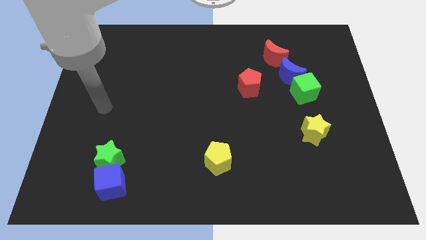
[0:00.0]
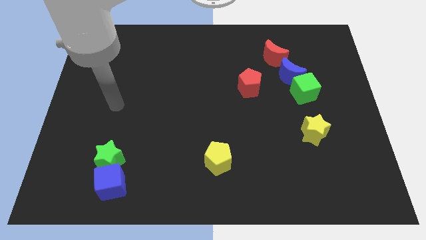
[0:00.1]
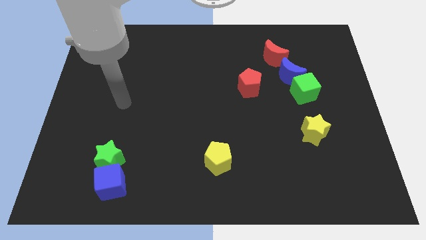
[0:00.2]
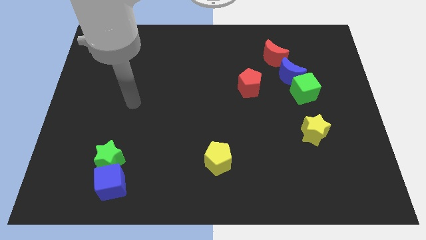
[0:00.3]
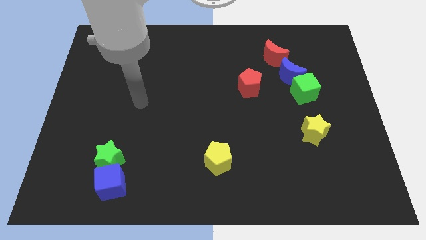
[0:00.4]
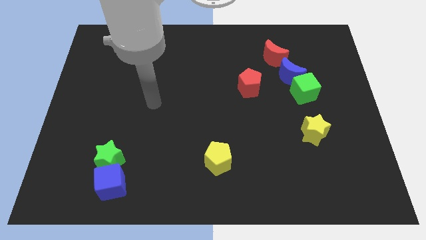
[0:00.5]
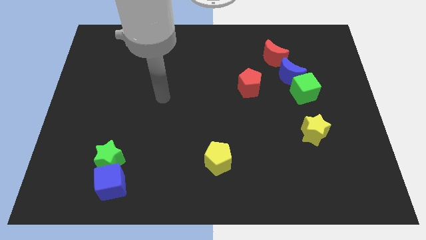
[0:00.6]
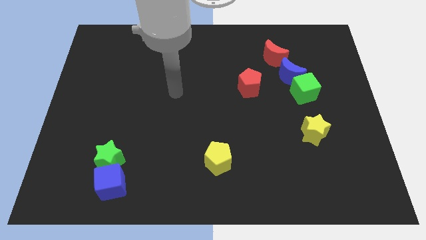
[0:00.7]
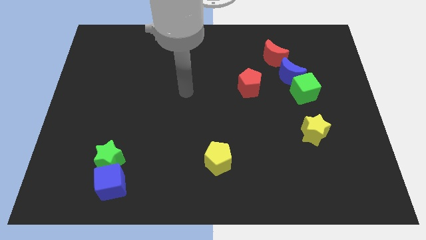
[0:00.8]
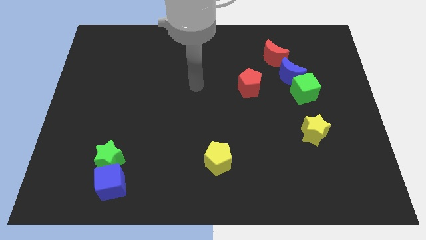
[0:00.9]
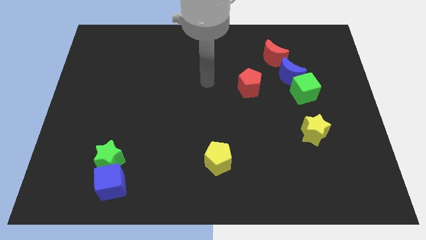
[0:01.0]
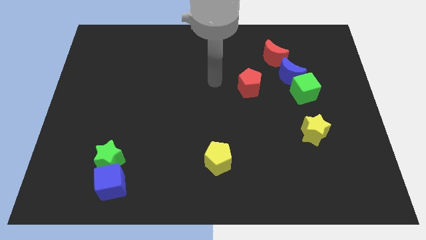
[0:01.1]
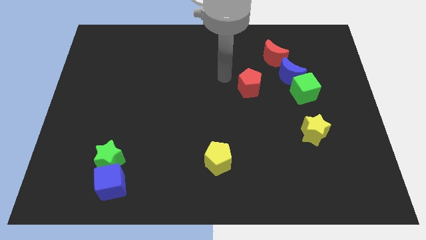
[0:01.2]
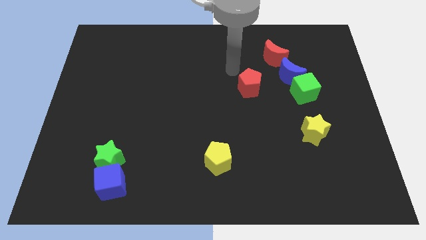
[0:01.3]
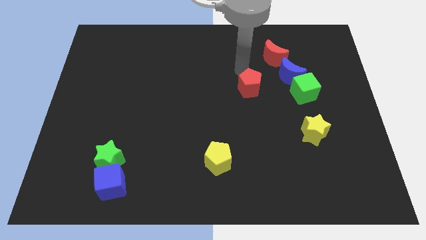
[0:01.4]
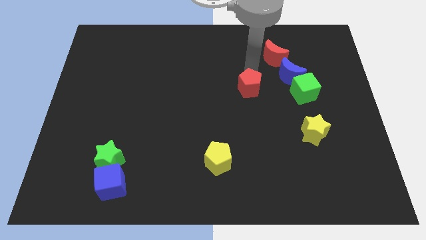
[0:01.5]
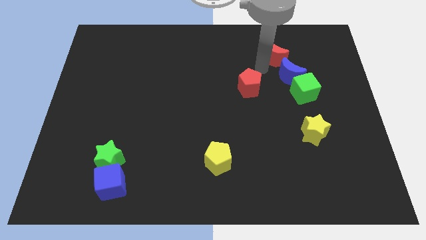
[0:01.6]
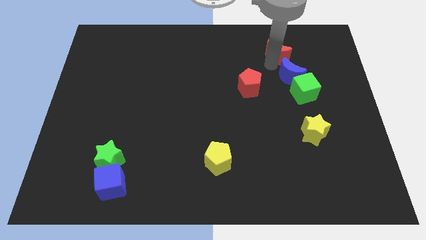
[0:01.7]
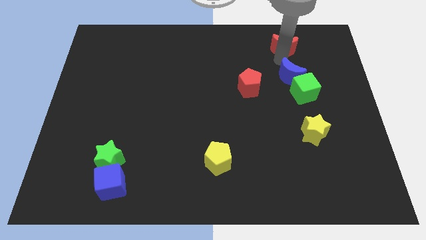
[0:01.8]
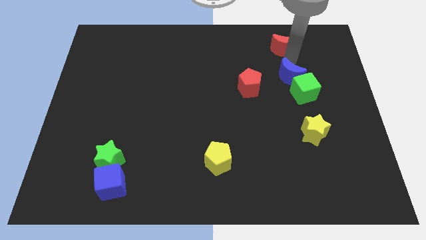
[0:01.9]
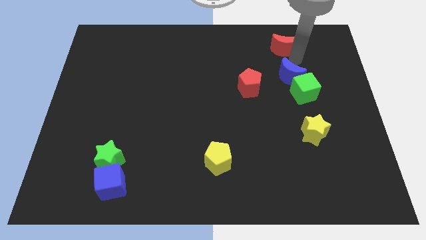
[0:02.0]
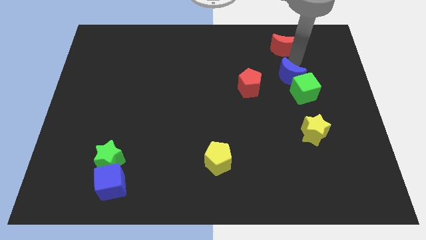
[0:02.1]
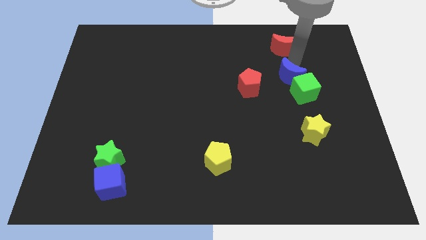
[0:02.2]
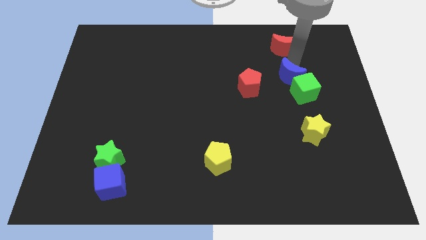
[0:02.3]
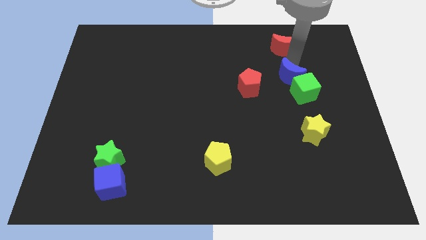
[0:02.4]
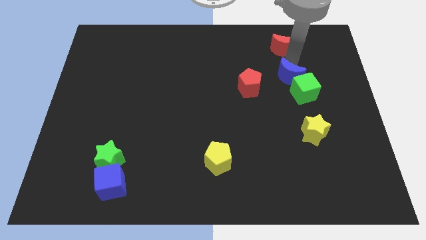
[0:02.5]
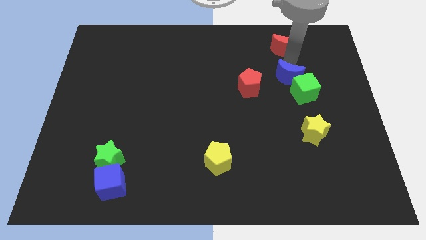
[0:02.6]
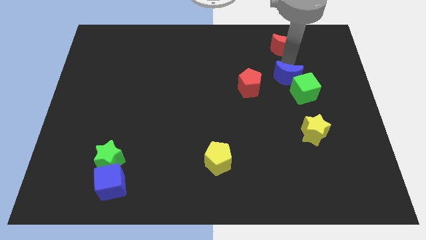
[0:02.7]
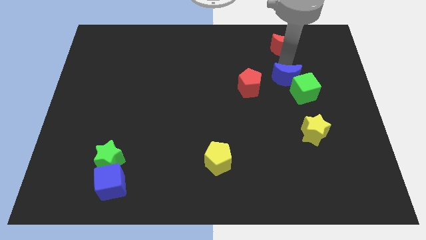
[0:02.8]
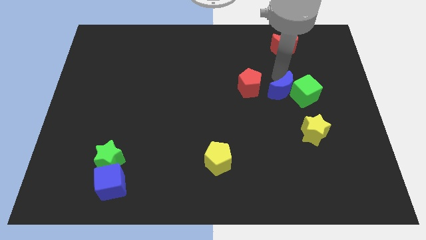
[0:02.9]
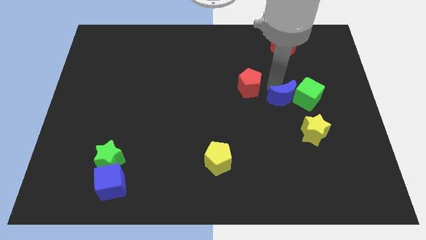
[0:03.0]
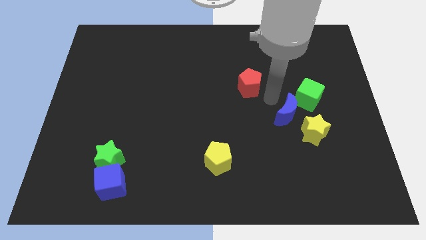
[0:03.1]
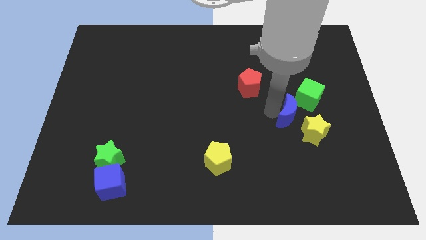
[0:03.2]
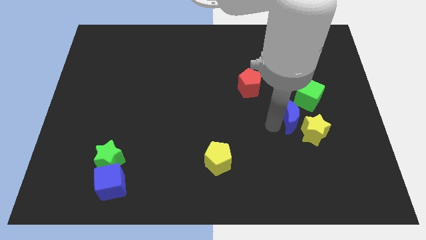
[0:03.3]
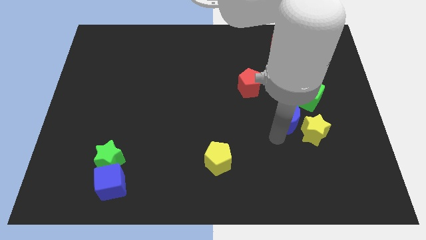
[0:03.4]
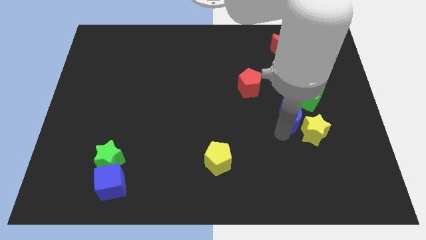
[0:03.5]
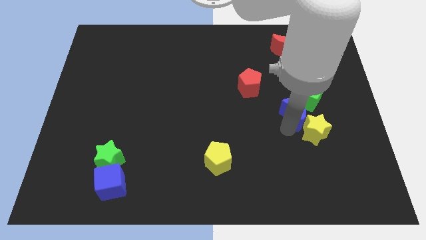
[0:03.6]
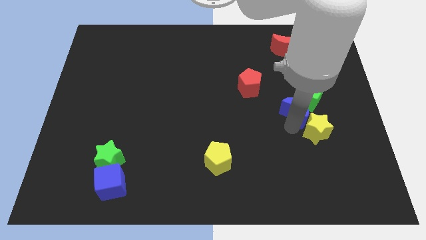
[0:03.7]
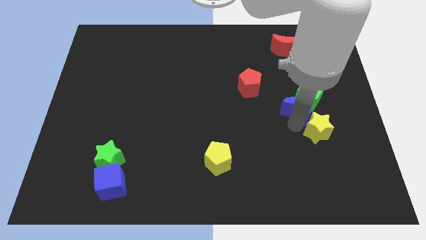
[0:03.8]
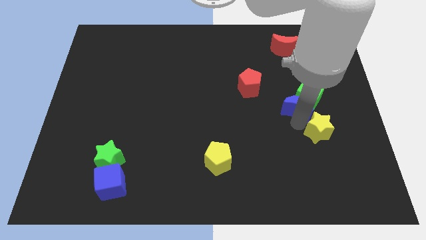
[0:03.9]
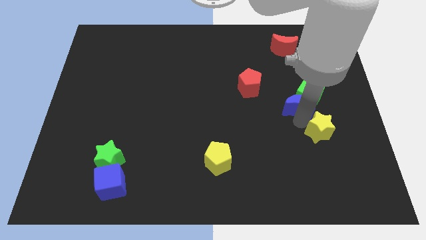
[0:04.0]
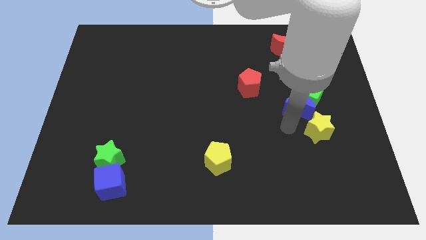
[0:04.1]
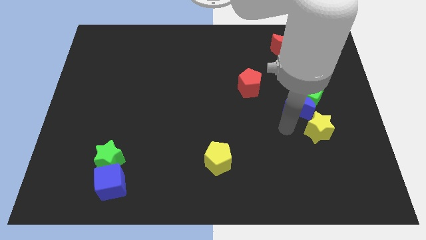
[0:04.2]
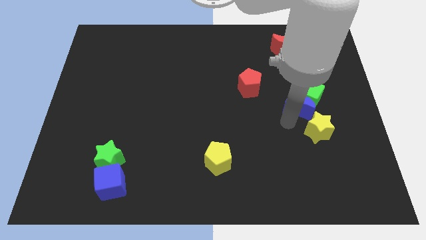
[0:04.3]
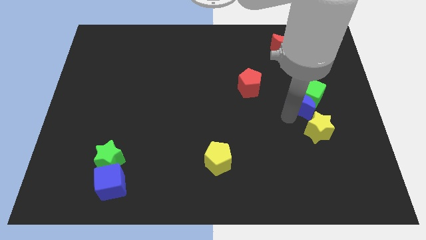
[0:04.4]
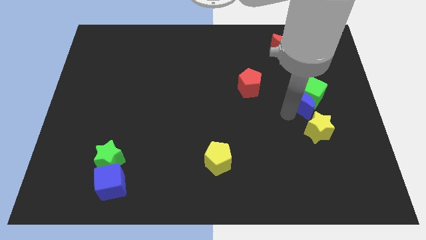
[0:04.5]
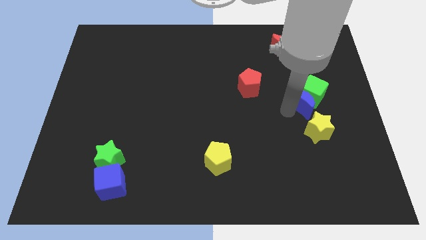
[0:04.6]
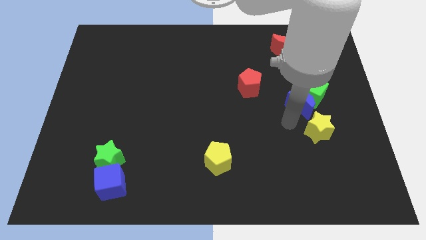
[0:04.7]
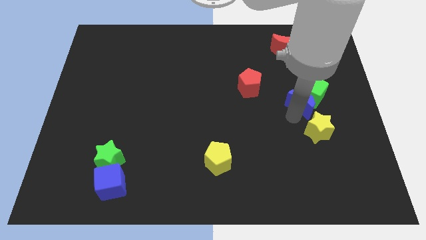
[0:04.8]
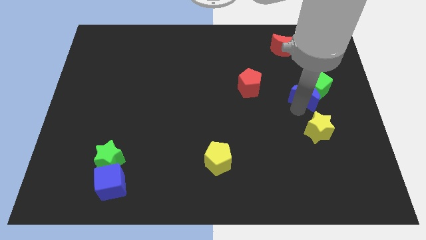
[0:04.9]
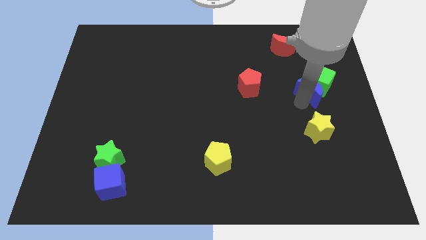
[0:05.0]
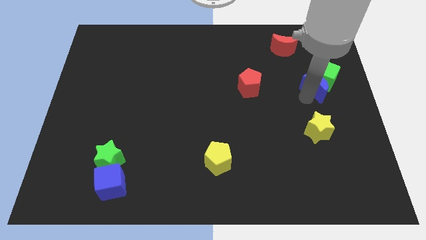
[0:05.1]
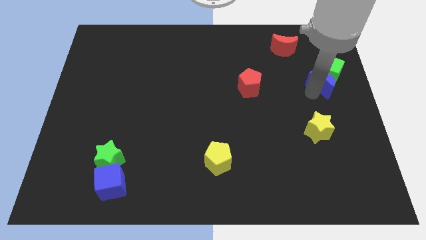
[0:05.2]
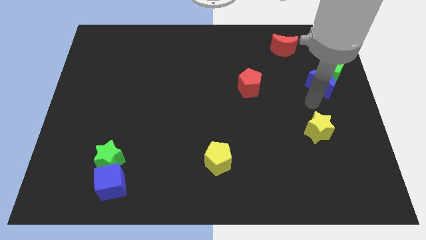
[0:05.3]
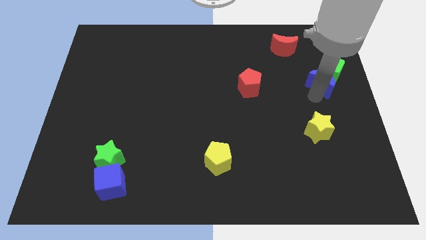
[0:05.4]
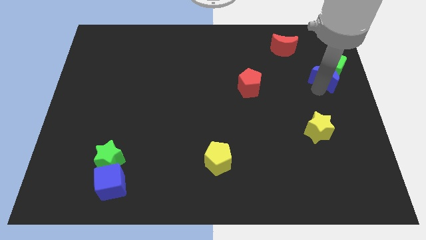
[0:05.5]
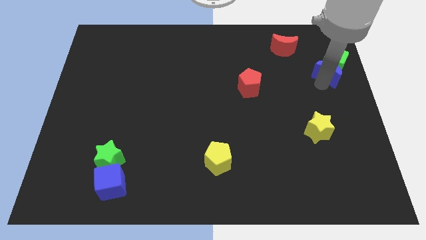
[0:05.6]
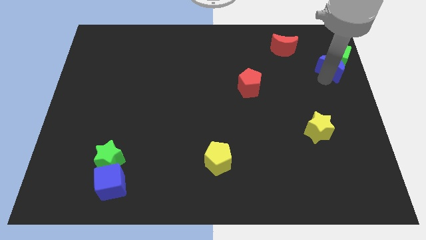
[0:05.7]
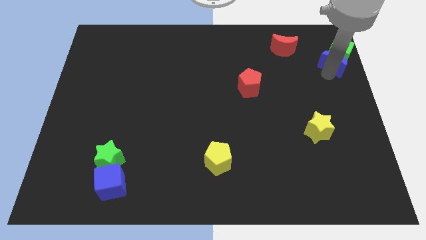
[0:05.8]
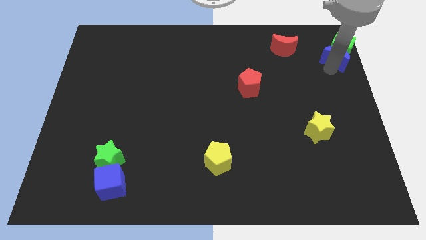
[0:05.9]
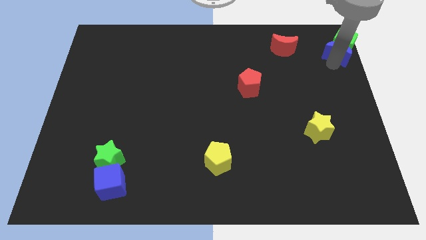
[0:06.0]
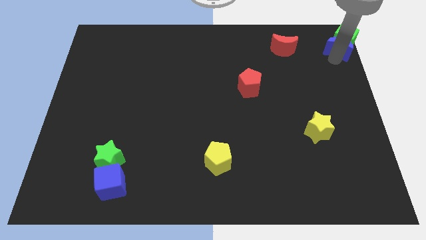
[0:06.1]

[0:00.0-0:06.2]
put the blue moon to the top right of the board

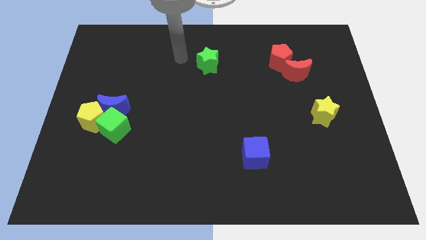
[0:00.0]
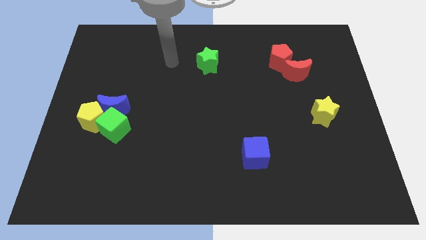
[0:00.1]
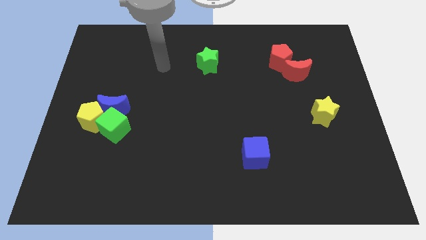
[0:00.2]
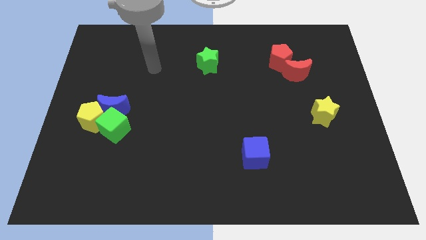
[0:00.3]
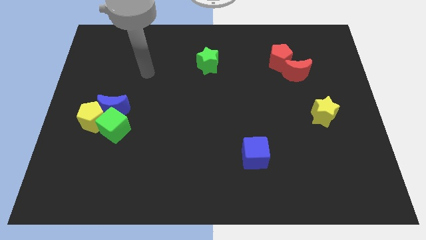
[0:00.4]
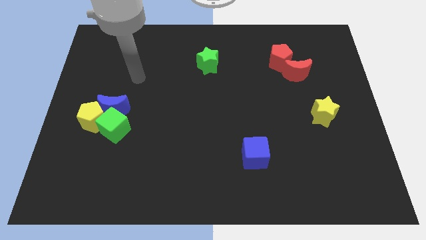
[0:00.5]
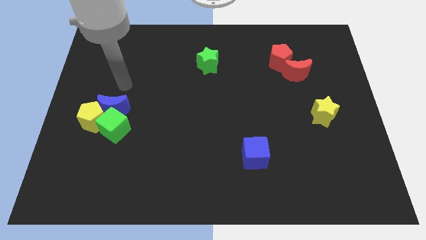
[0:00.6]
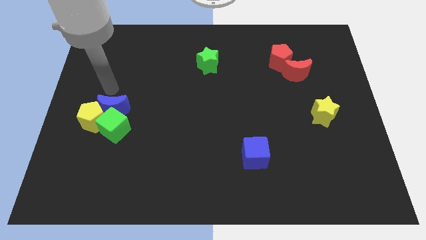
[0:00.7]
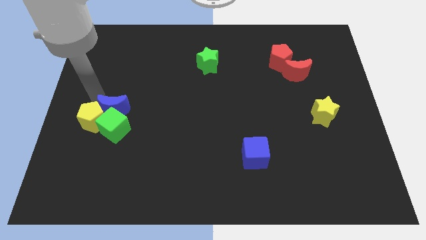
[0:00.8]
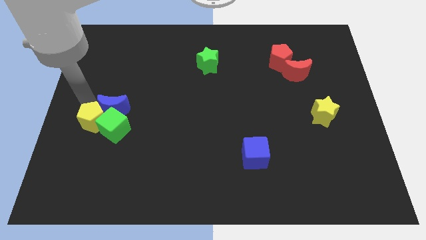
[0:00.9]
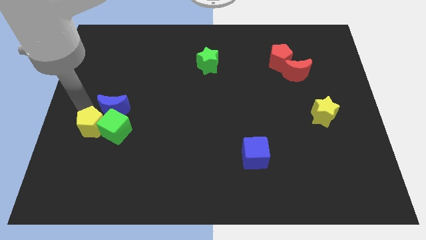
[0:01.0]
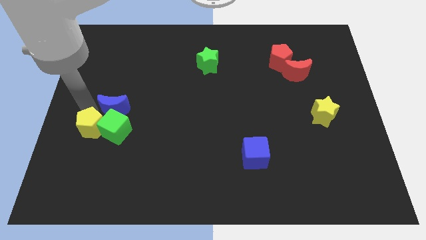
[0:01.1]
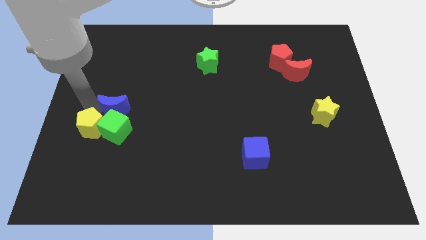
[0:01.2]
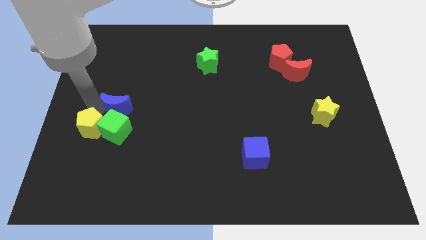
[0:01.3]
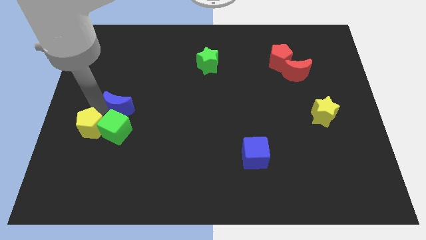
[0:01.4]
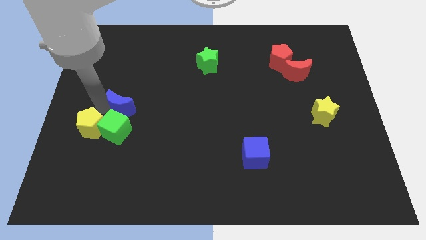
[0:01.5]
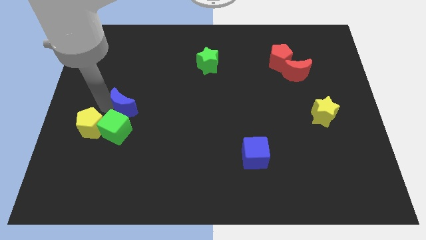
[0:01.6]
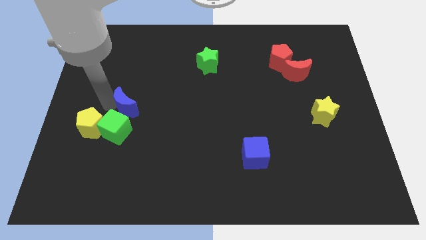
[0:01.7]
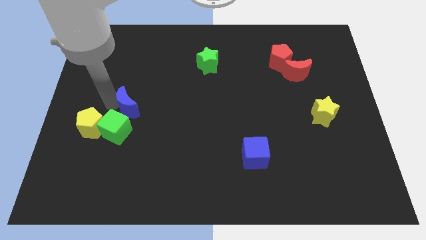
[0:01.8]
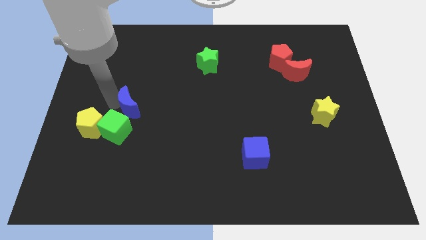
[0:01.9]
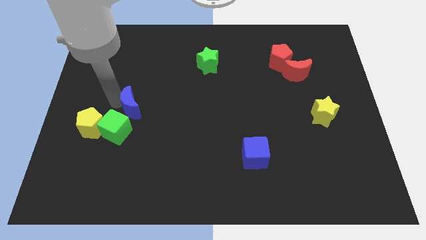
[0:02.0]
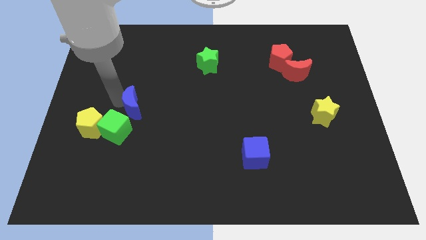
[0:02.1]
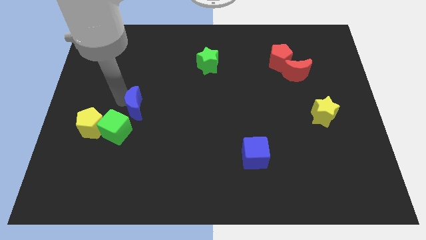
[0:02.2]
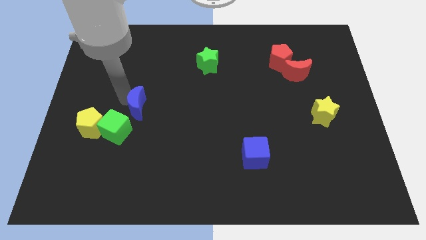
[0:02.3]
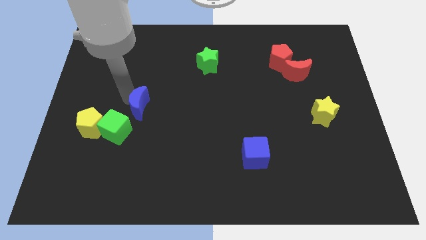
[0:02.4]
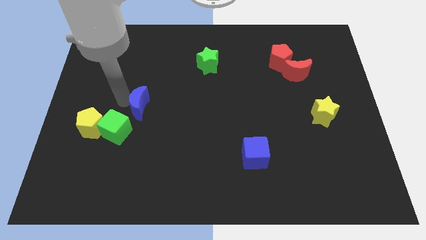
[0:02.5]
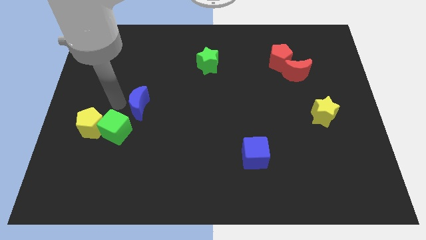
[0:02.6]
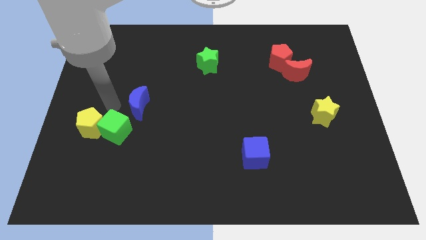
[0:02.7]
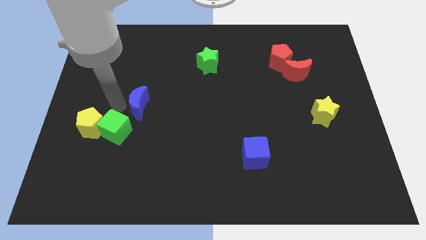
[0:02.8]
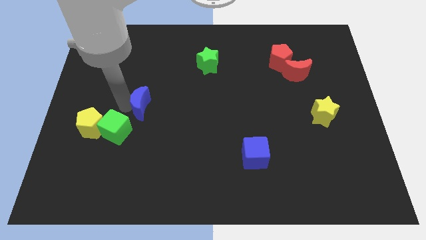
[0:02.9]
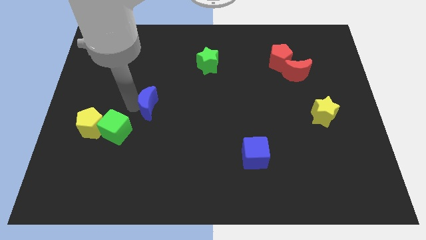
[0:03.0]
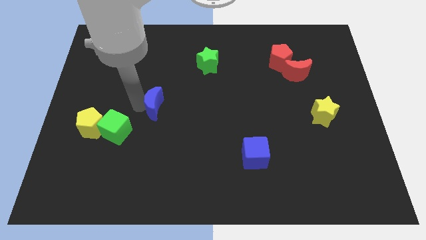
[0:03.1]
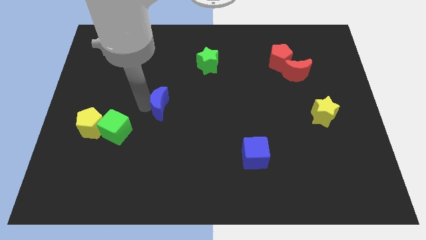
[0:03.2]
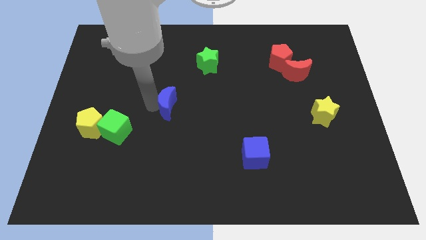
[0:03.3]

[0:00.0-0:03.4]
push the blue moon to the middle of the board
